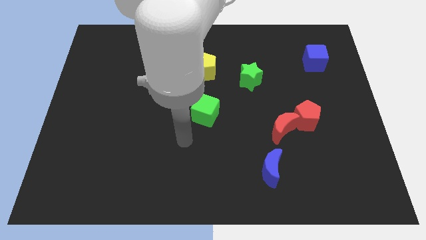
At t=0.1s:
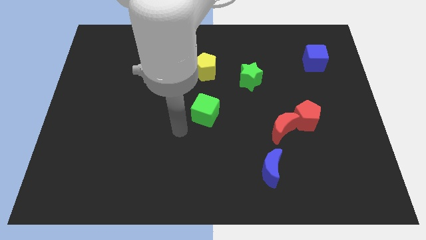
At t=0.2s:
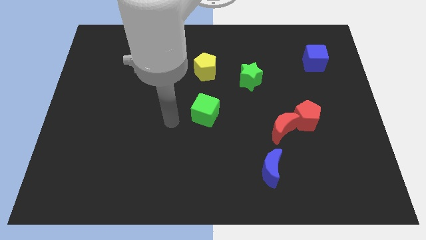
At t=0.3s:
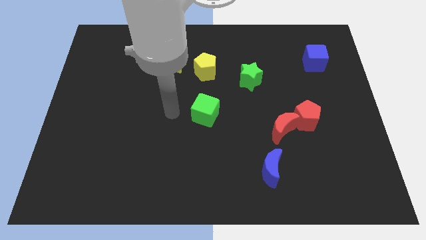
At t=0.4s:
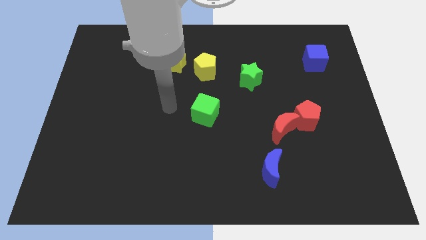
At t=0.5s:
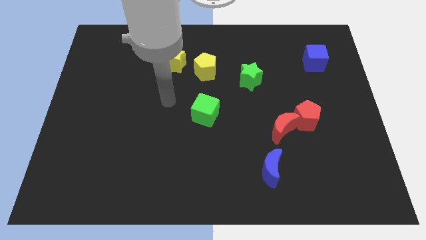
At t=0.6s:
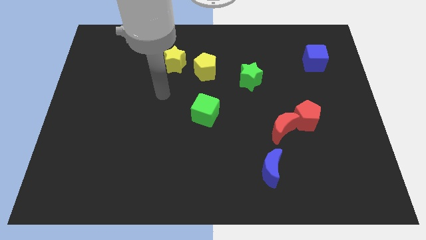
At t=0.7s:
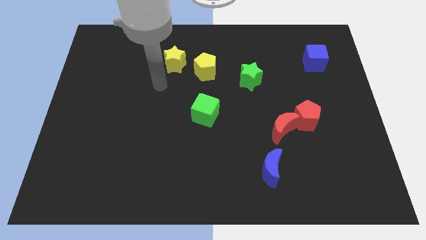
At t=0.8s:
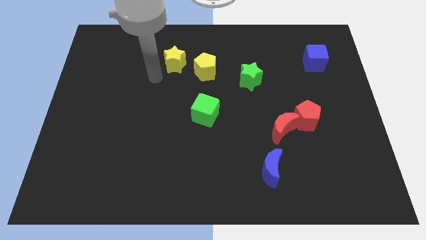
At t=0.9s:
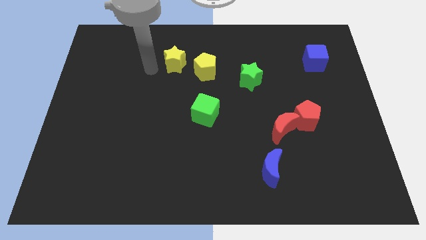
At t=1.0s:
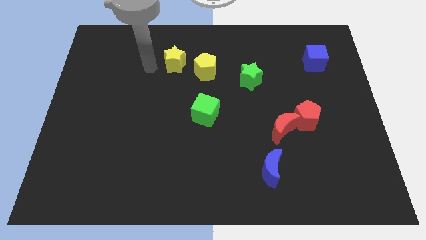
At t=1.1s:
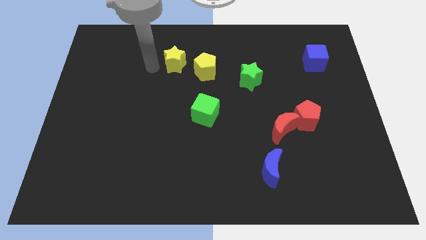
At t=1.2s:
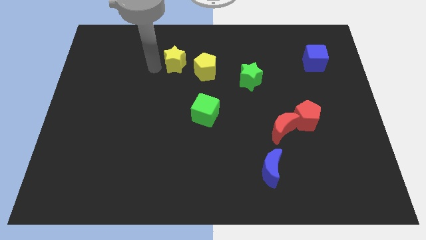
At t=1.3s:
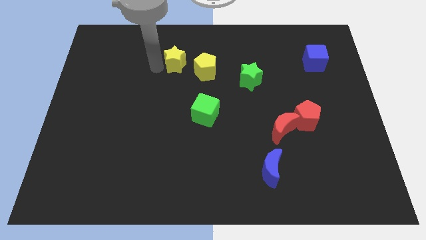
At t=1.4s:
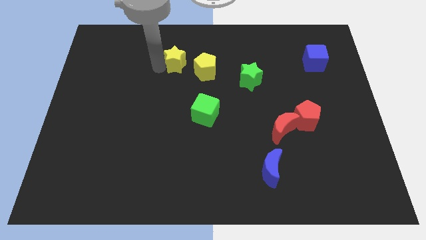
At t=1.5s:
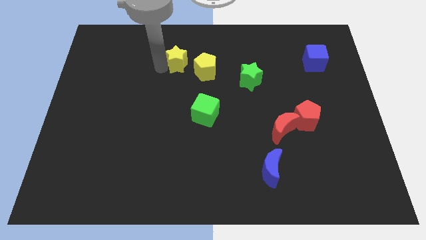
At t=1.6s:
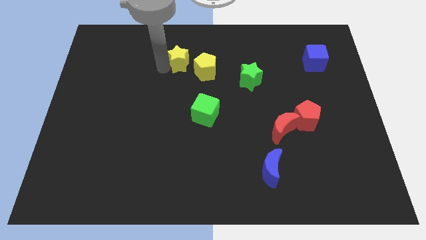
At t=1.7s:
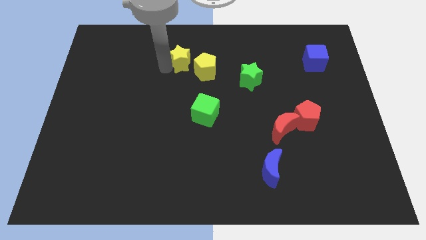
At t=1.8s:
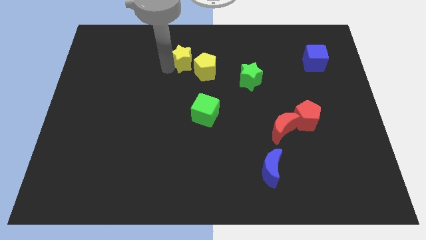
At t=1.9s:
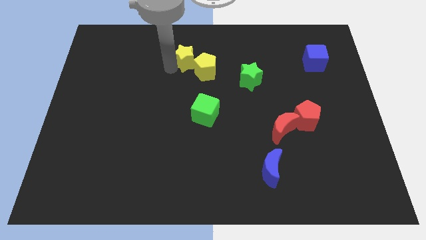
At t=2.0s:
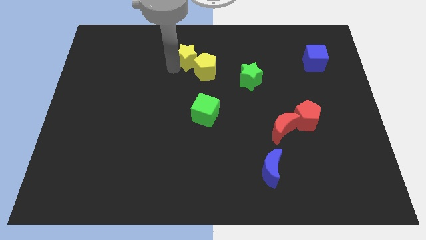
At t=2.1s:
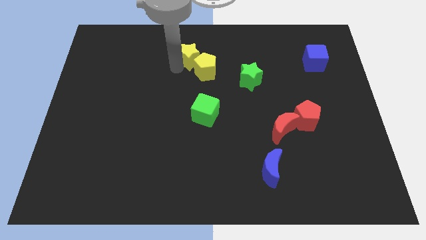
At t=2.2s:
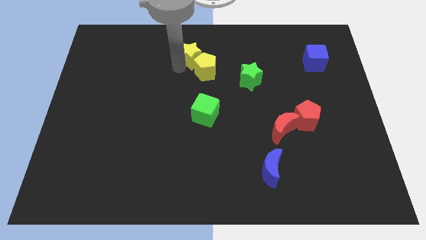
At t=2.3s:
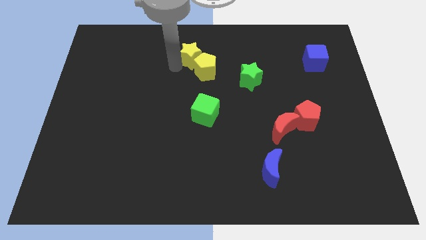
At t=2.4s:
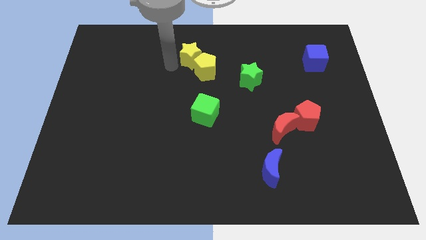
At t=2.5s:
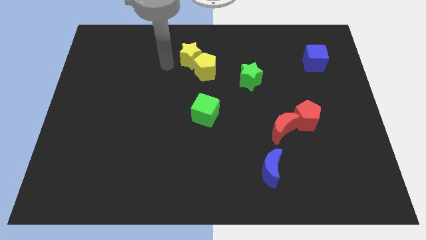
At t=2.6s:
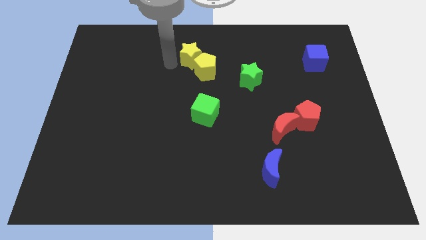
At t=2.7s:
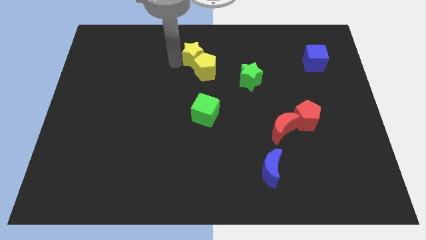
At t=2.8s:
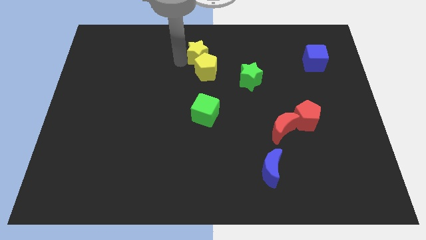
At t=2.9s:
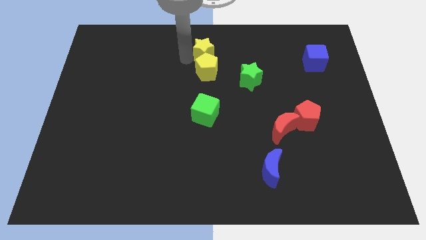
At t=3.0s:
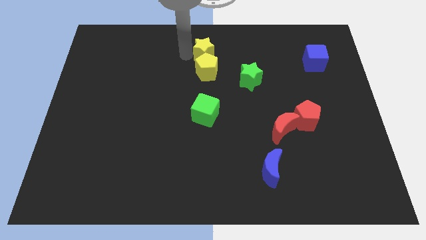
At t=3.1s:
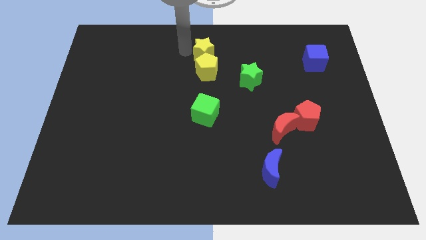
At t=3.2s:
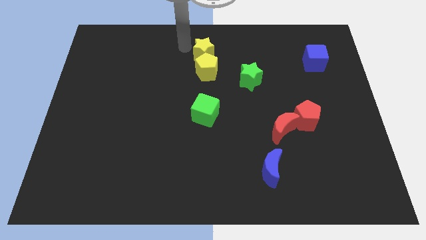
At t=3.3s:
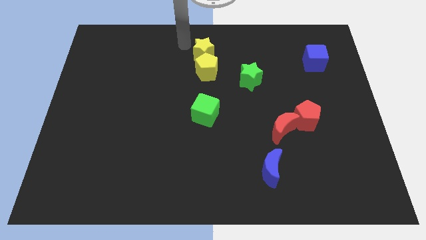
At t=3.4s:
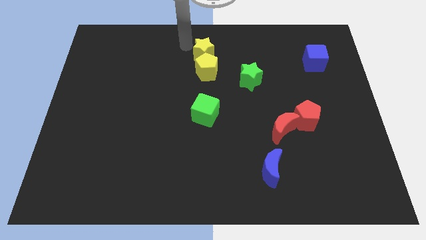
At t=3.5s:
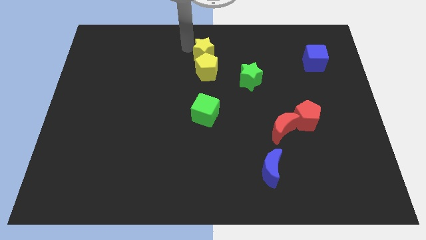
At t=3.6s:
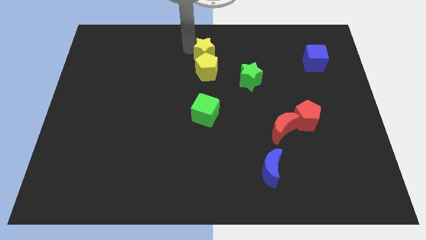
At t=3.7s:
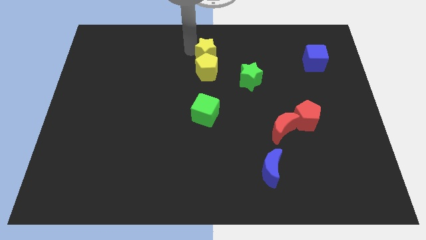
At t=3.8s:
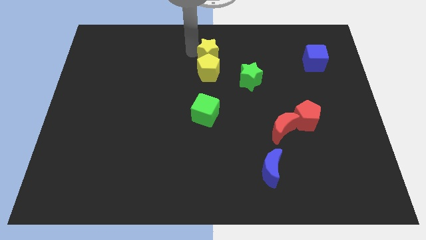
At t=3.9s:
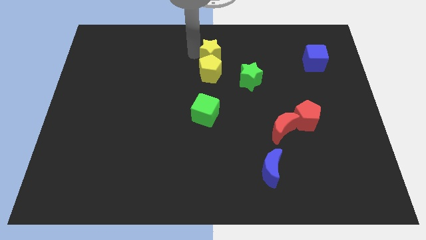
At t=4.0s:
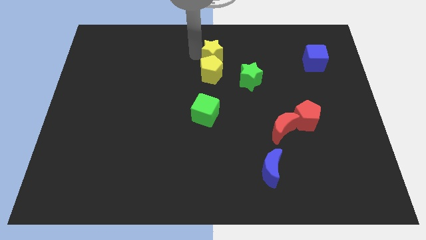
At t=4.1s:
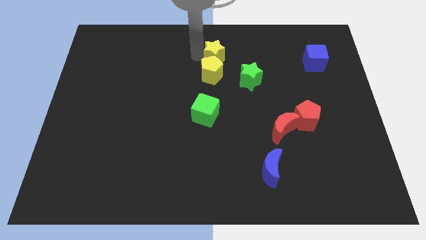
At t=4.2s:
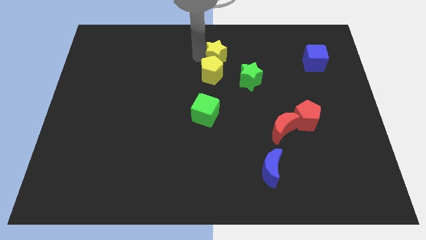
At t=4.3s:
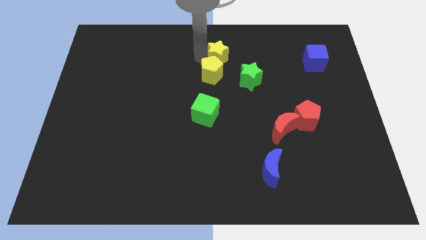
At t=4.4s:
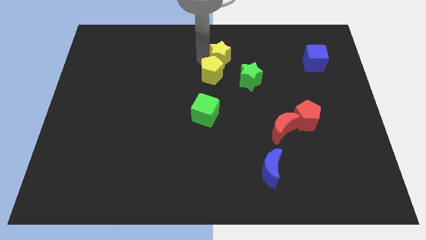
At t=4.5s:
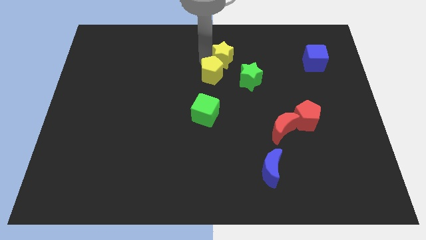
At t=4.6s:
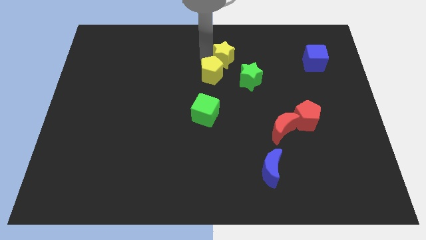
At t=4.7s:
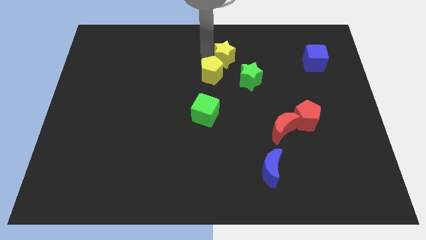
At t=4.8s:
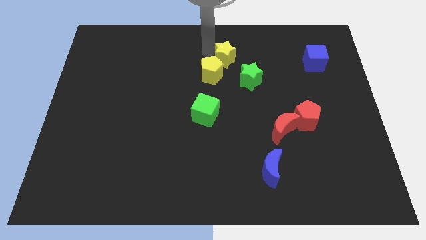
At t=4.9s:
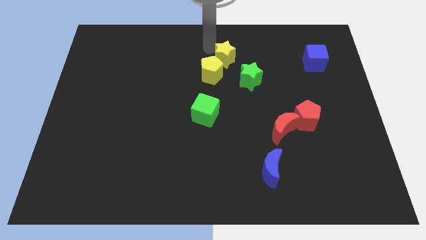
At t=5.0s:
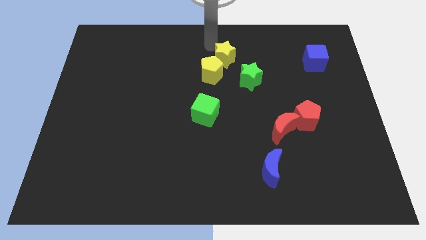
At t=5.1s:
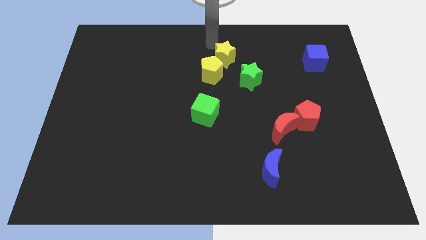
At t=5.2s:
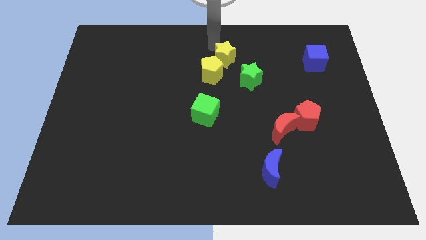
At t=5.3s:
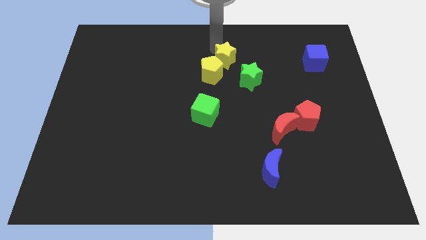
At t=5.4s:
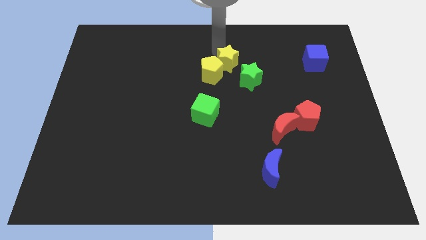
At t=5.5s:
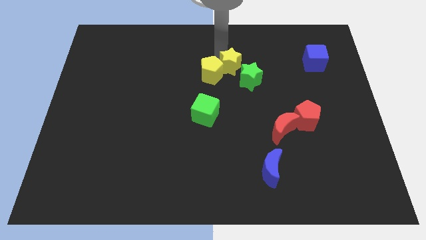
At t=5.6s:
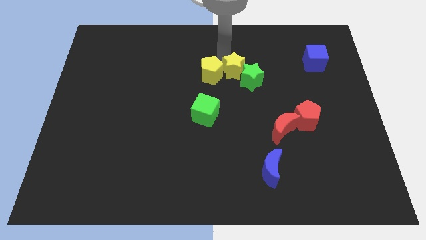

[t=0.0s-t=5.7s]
slide the yellow star to the green star

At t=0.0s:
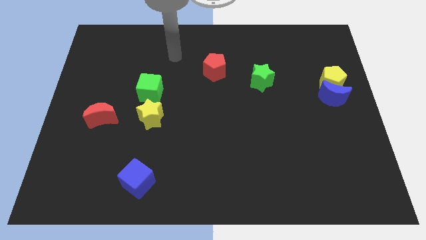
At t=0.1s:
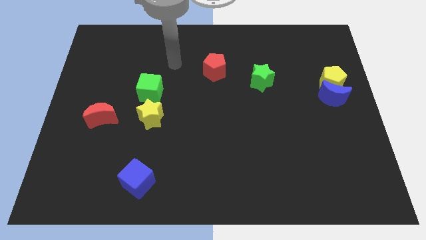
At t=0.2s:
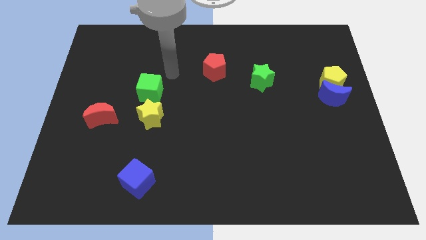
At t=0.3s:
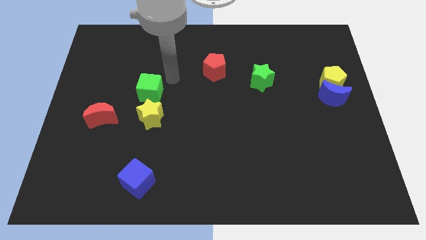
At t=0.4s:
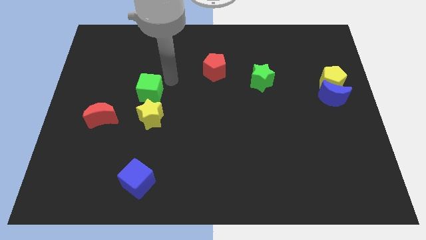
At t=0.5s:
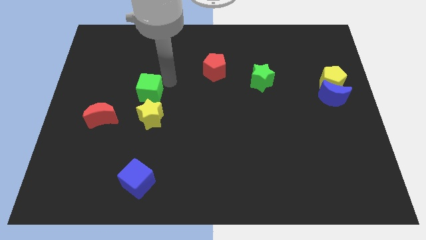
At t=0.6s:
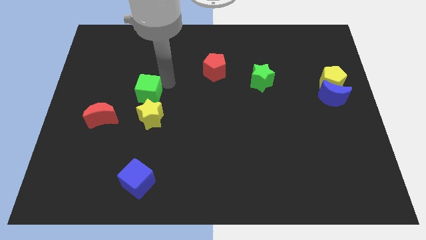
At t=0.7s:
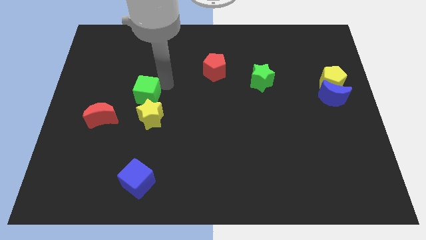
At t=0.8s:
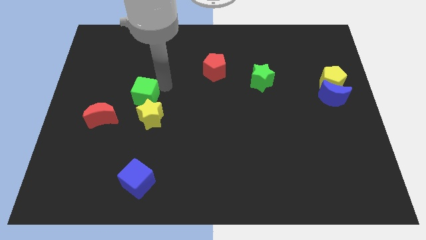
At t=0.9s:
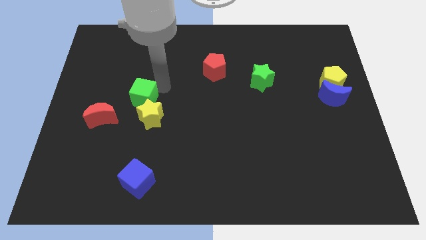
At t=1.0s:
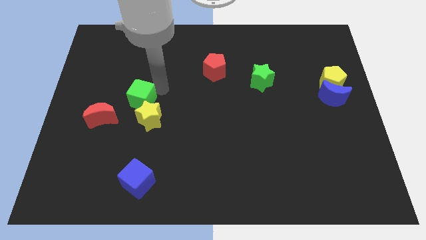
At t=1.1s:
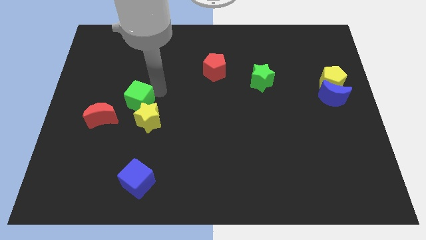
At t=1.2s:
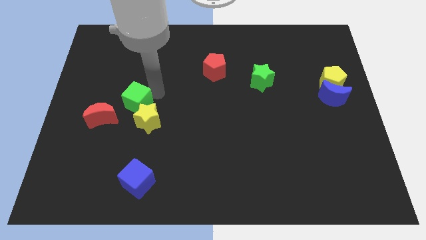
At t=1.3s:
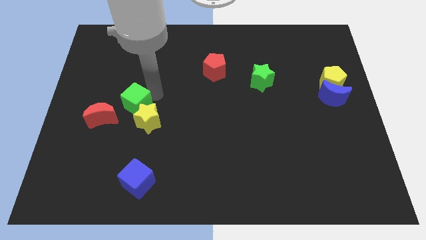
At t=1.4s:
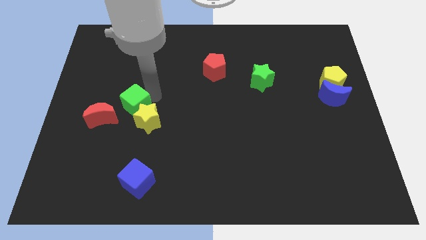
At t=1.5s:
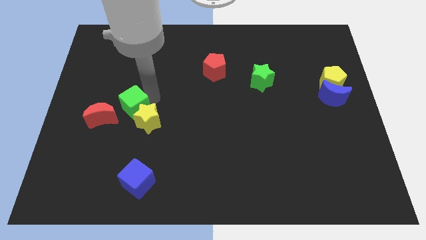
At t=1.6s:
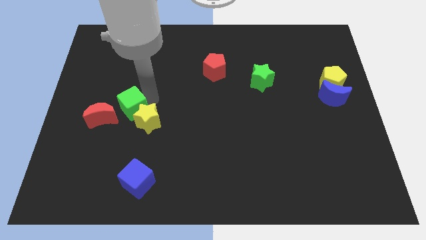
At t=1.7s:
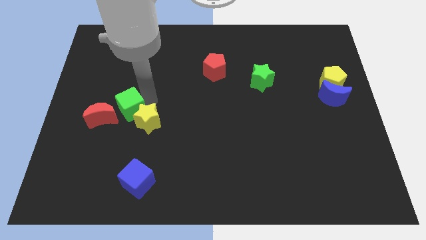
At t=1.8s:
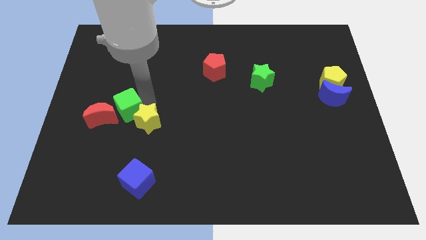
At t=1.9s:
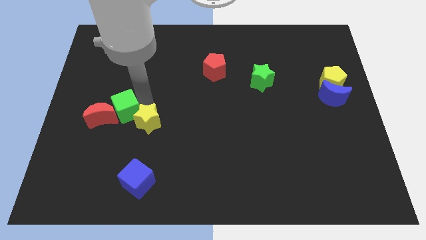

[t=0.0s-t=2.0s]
put the green cube to the red moon
